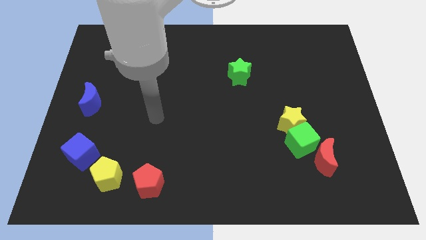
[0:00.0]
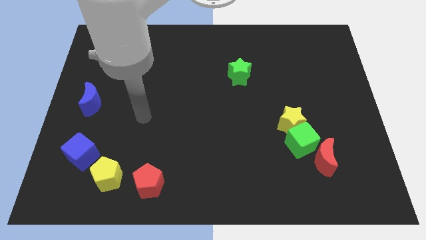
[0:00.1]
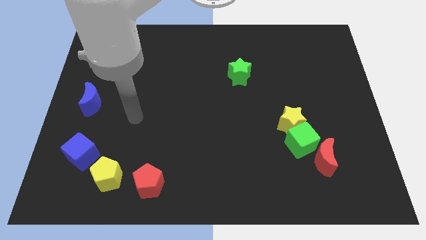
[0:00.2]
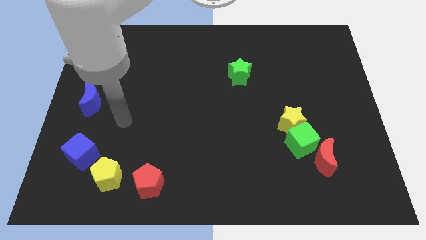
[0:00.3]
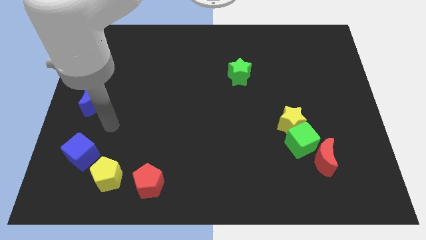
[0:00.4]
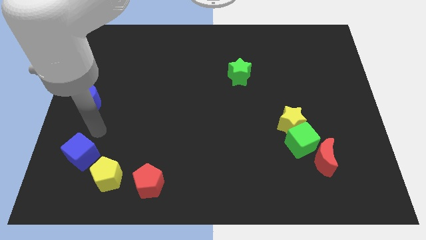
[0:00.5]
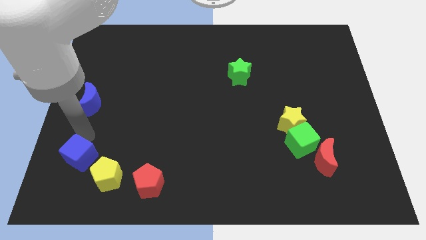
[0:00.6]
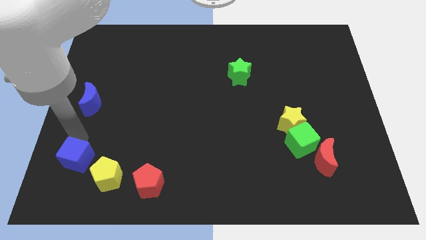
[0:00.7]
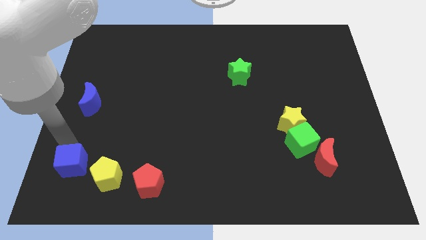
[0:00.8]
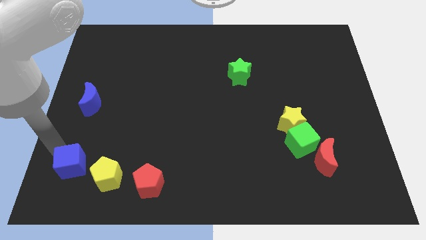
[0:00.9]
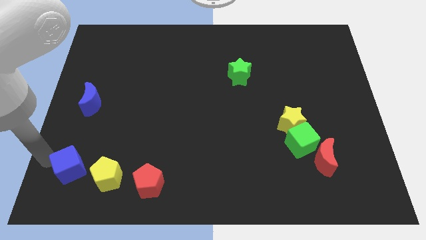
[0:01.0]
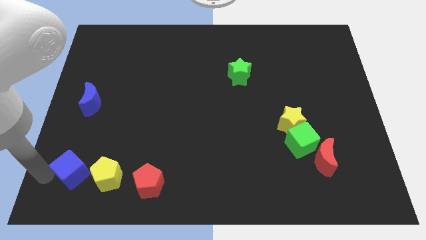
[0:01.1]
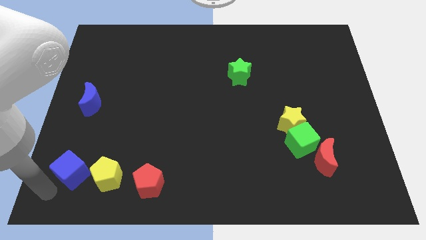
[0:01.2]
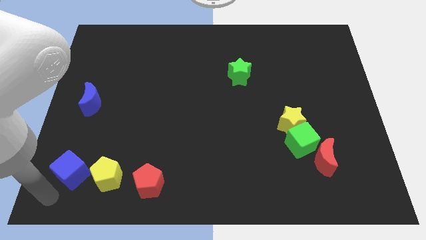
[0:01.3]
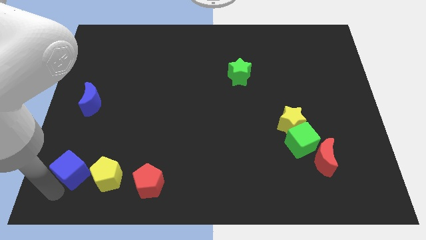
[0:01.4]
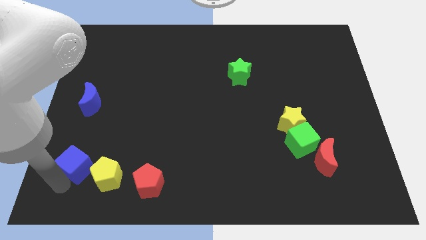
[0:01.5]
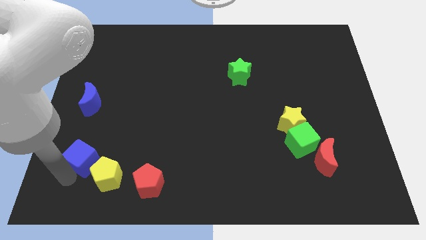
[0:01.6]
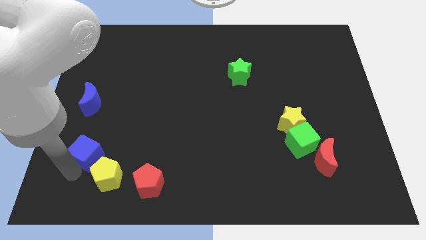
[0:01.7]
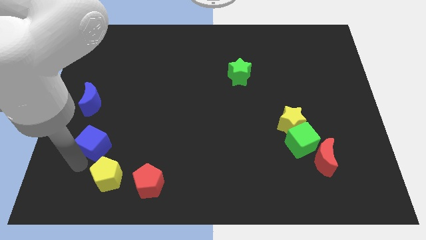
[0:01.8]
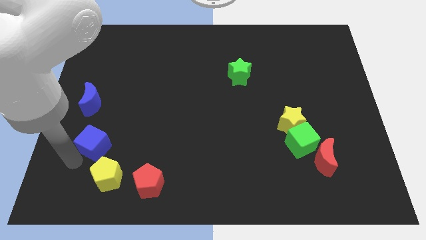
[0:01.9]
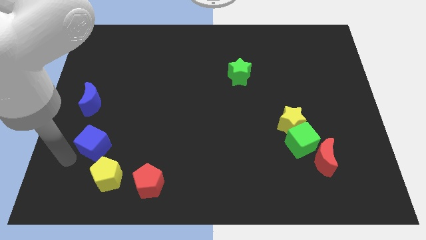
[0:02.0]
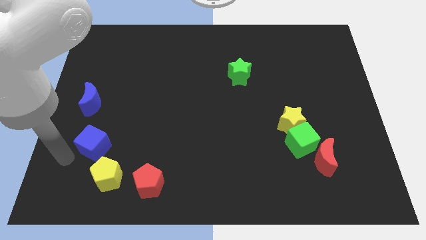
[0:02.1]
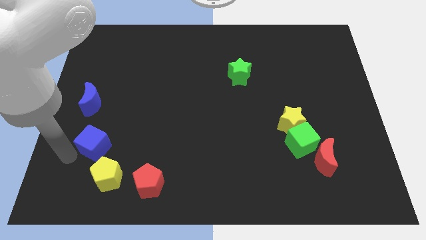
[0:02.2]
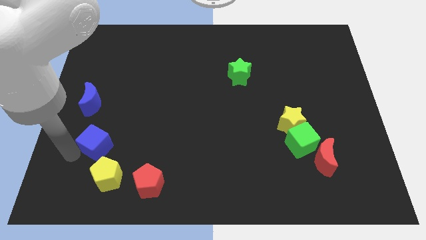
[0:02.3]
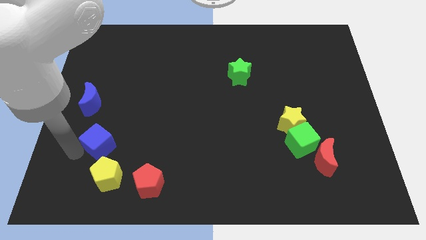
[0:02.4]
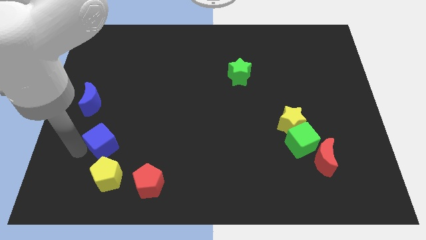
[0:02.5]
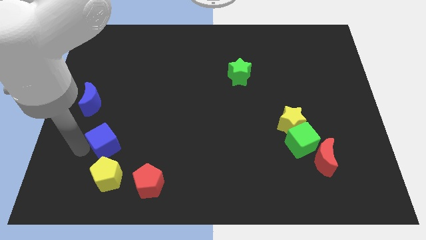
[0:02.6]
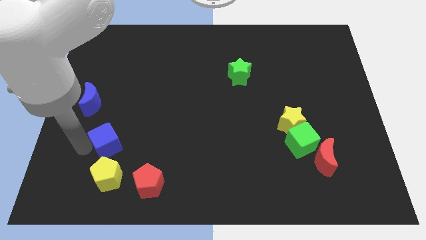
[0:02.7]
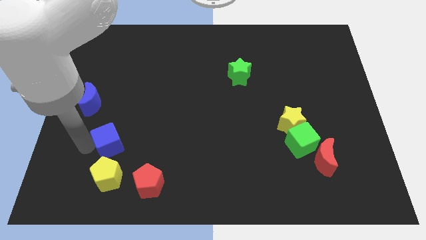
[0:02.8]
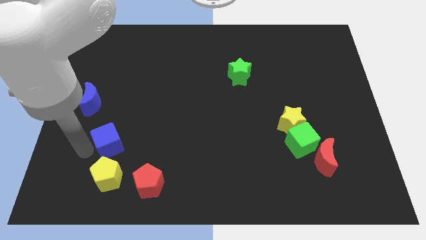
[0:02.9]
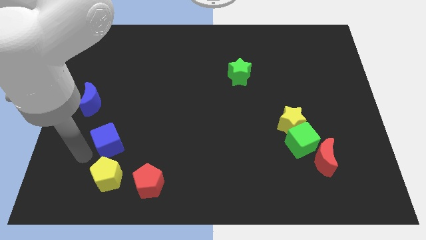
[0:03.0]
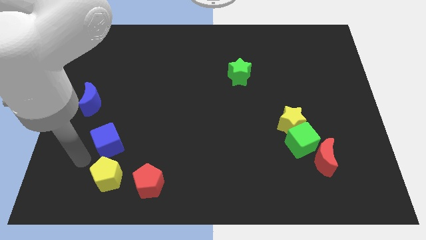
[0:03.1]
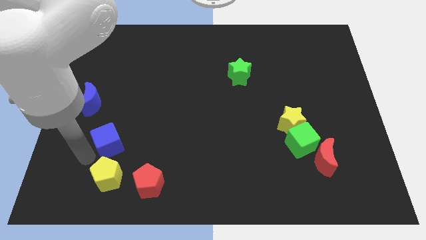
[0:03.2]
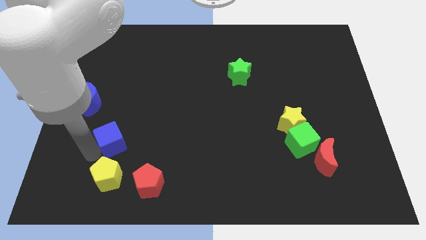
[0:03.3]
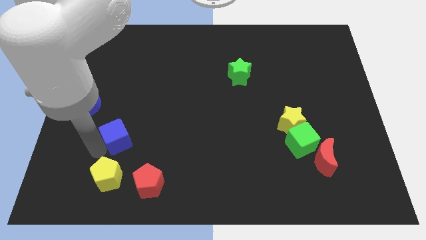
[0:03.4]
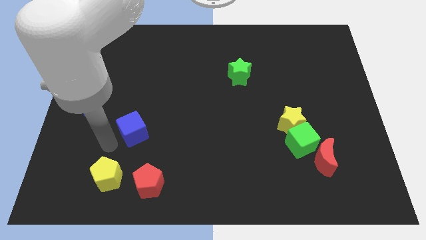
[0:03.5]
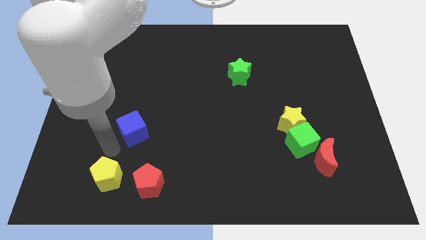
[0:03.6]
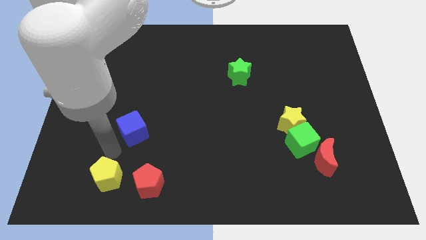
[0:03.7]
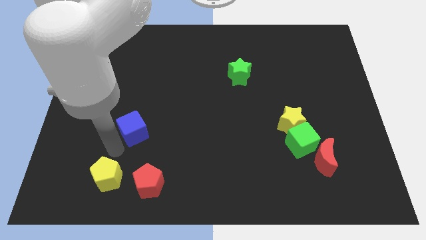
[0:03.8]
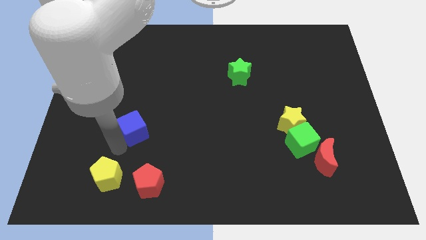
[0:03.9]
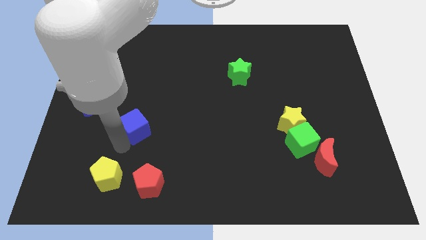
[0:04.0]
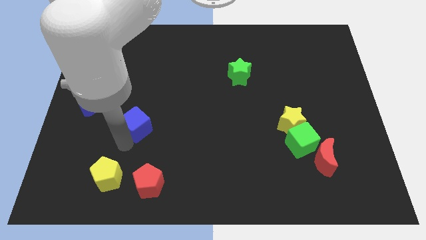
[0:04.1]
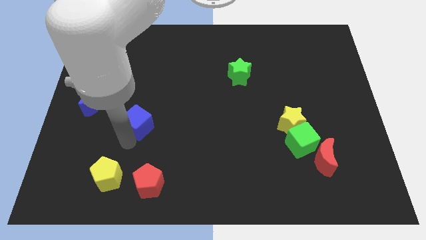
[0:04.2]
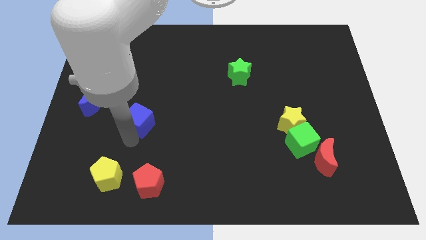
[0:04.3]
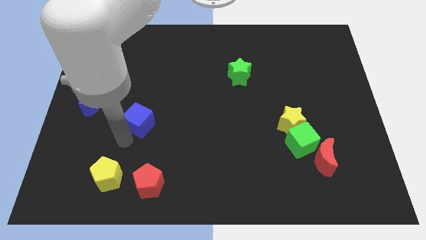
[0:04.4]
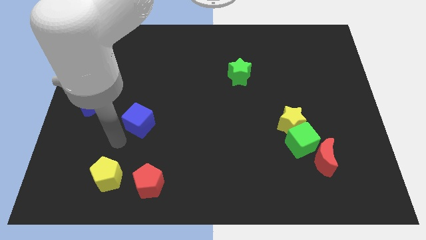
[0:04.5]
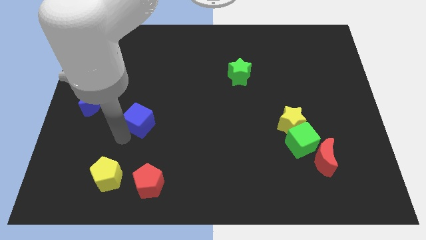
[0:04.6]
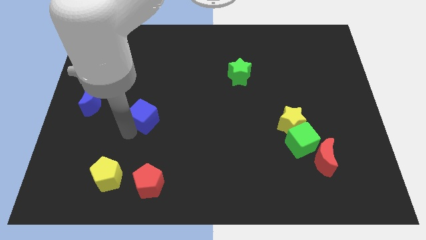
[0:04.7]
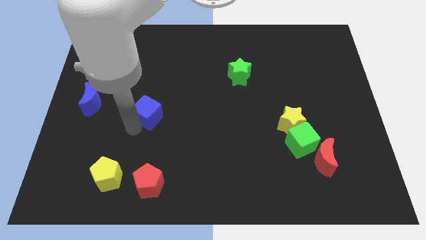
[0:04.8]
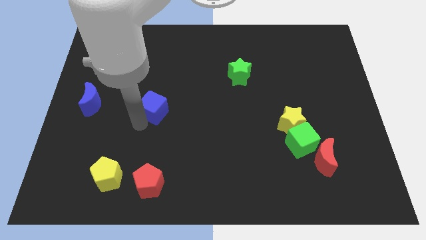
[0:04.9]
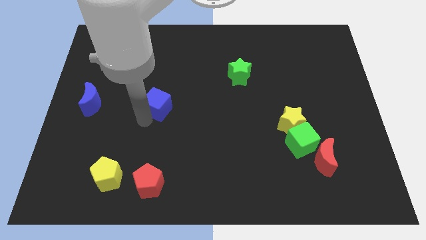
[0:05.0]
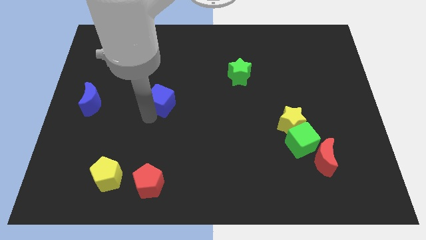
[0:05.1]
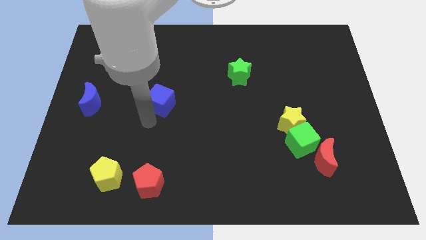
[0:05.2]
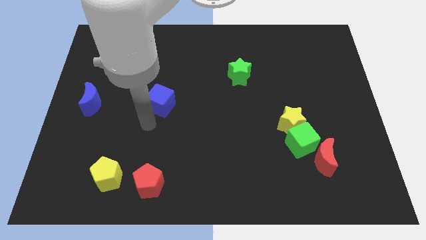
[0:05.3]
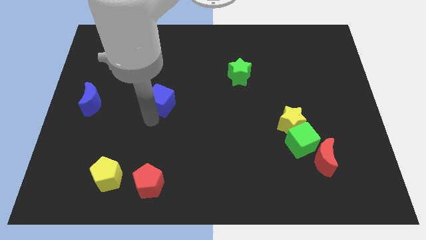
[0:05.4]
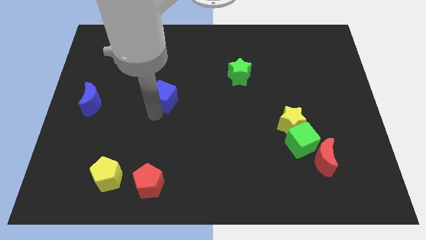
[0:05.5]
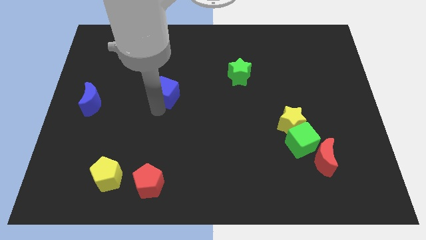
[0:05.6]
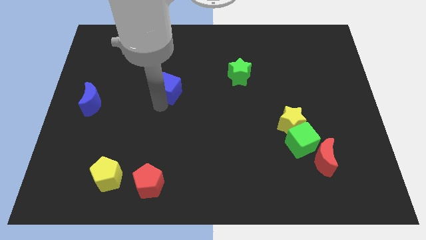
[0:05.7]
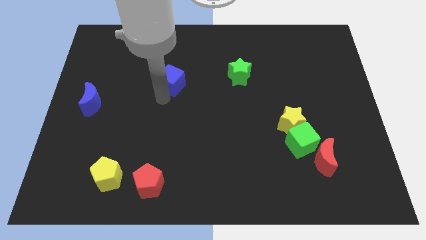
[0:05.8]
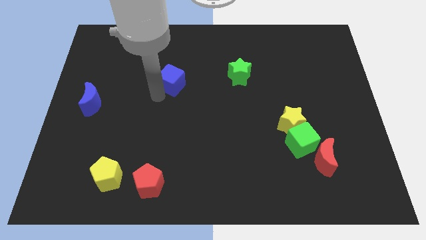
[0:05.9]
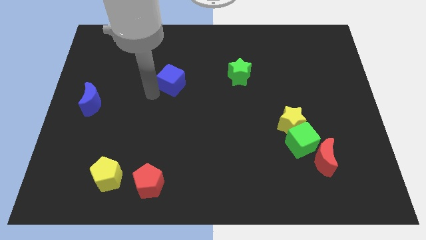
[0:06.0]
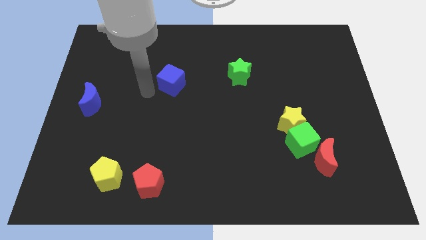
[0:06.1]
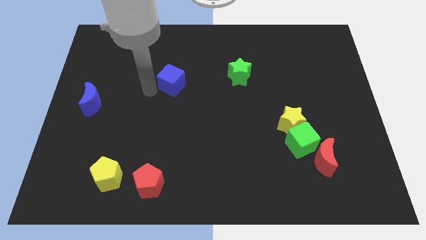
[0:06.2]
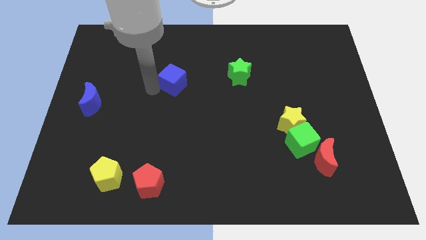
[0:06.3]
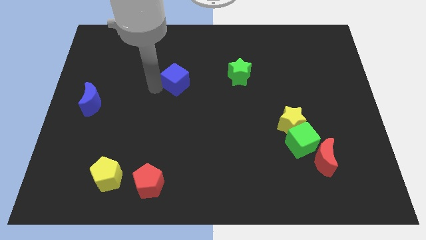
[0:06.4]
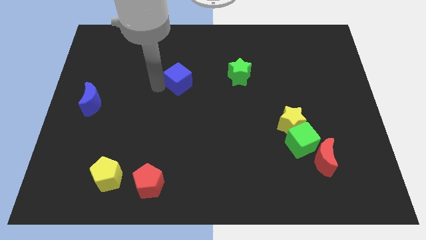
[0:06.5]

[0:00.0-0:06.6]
move the blue cube just left of the green star

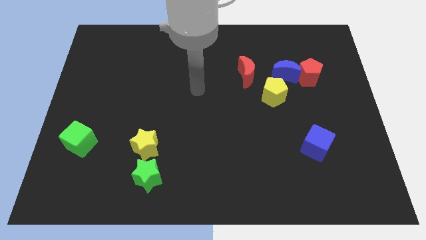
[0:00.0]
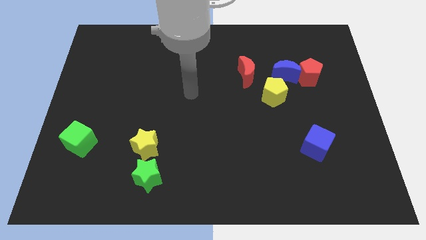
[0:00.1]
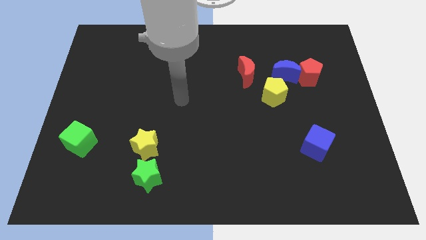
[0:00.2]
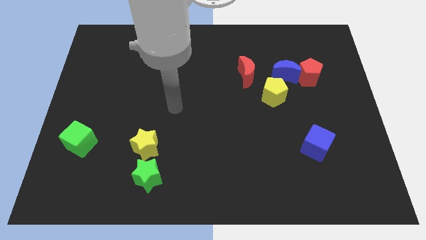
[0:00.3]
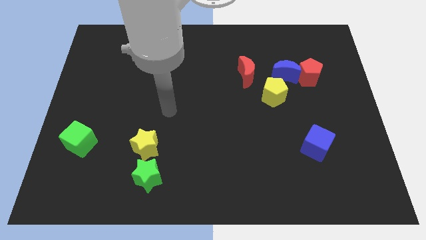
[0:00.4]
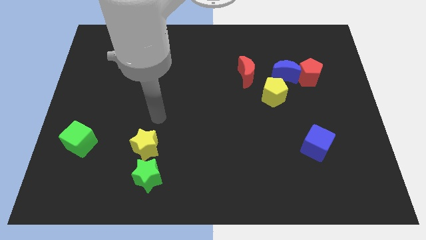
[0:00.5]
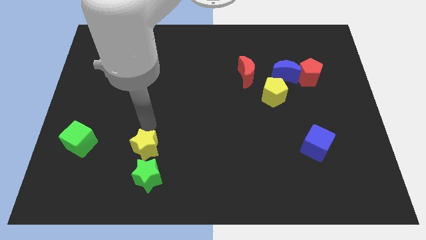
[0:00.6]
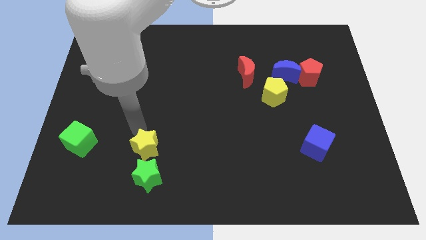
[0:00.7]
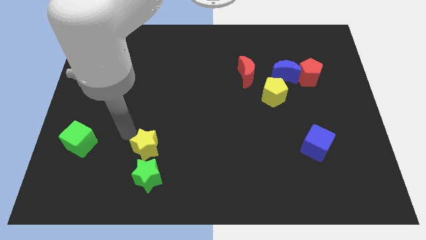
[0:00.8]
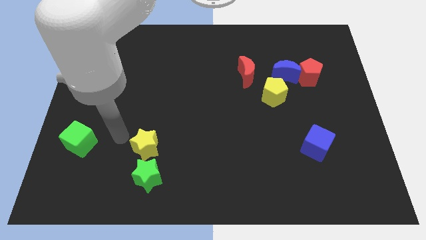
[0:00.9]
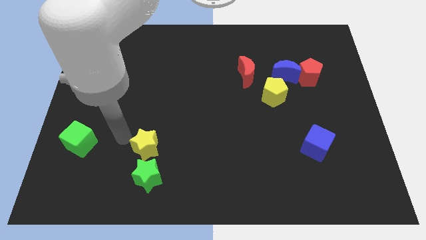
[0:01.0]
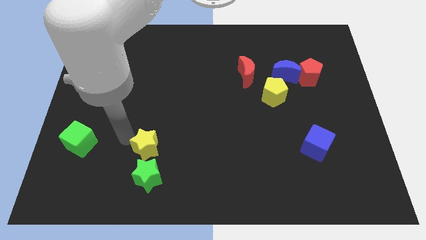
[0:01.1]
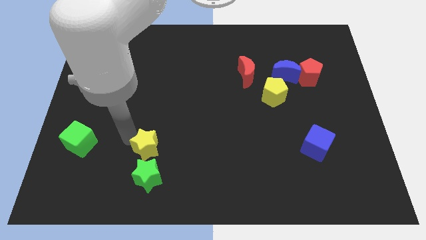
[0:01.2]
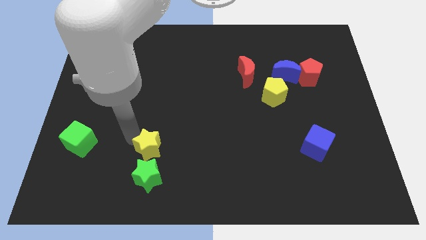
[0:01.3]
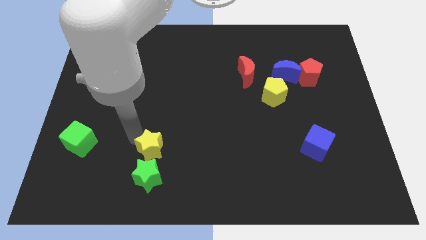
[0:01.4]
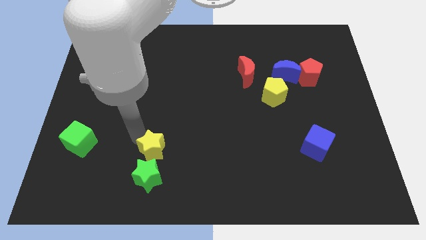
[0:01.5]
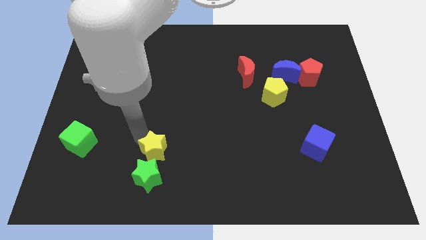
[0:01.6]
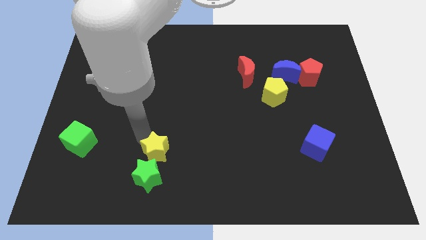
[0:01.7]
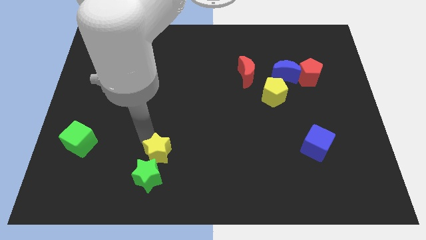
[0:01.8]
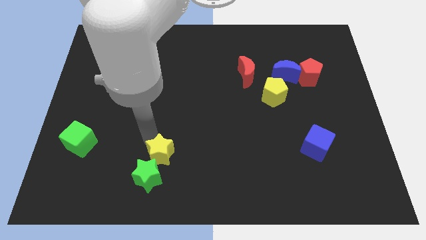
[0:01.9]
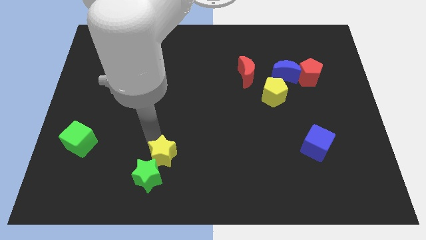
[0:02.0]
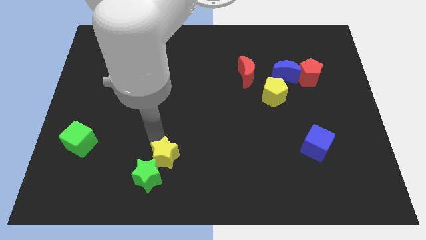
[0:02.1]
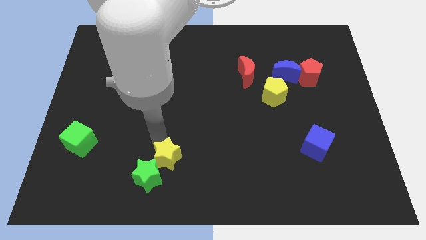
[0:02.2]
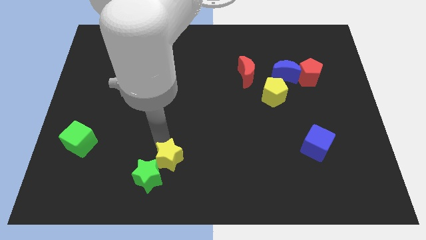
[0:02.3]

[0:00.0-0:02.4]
move the yellow star just right of the green star
